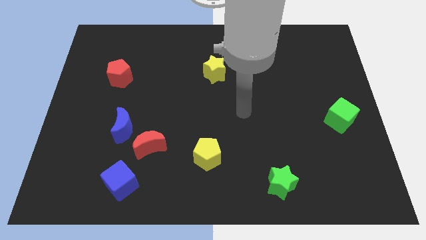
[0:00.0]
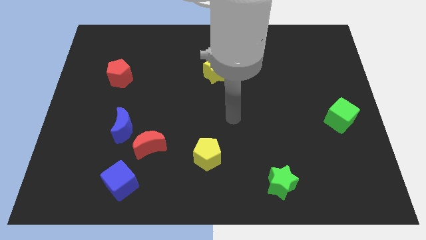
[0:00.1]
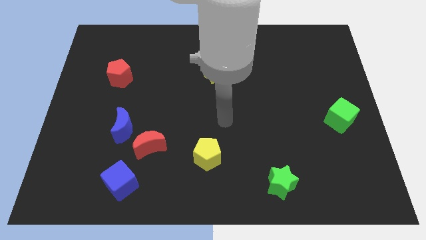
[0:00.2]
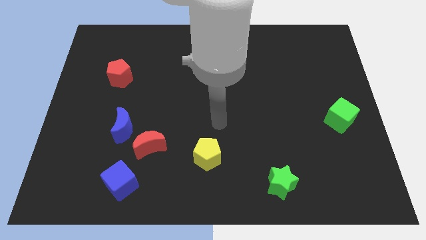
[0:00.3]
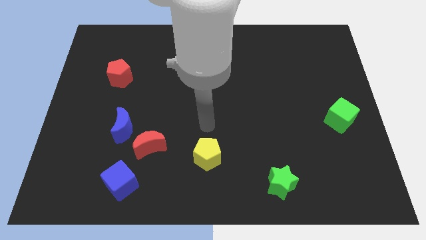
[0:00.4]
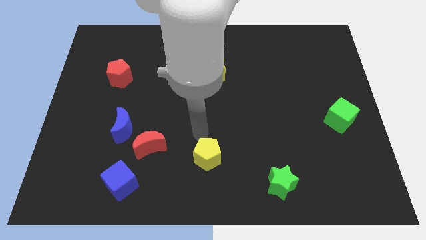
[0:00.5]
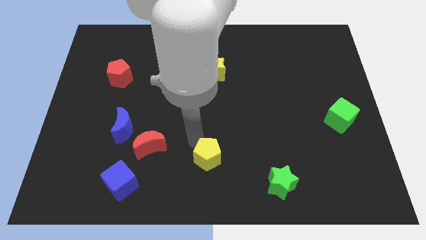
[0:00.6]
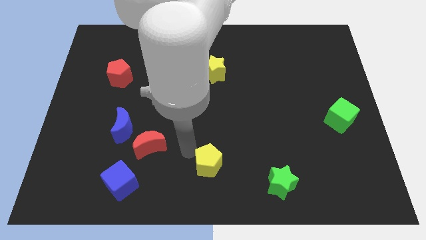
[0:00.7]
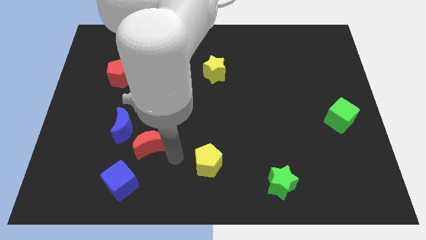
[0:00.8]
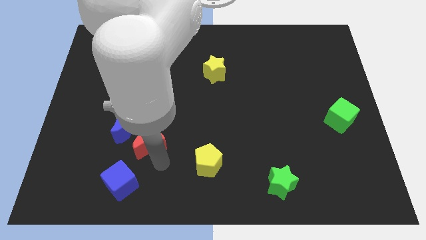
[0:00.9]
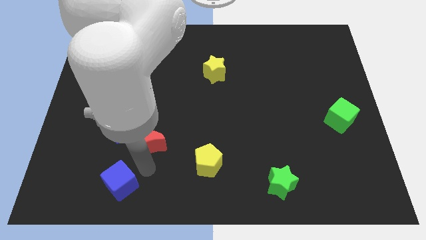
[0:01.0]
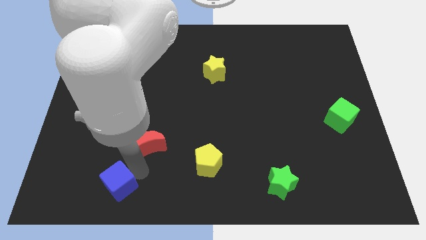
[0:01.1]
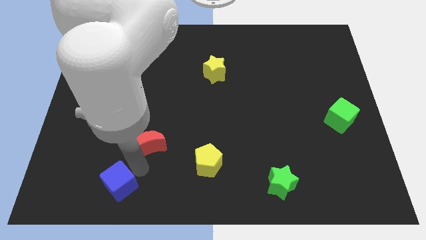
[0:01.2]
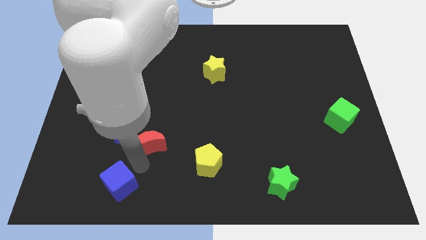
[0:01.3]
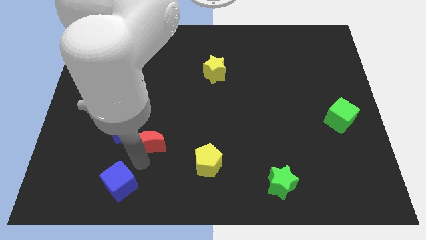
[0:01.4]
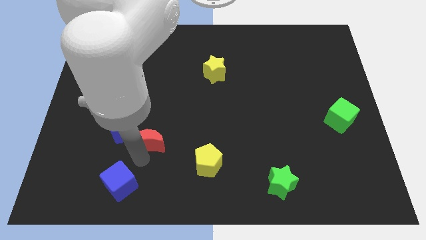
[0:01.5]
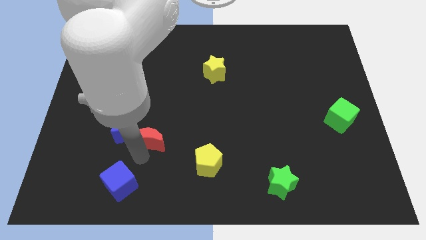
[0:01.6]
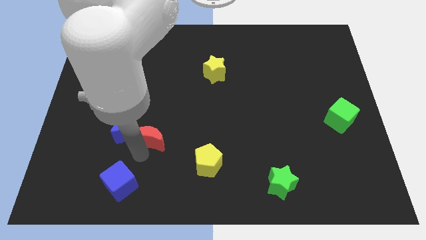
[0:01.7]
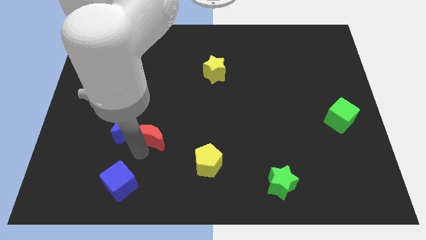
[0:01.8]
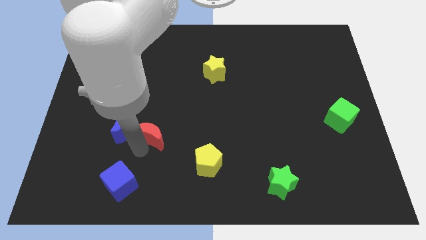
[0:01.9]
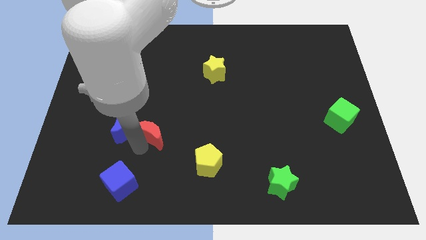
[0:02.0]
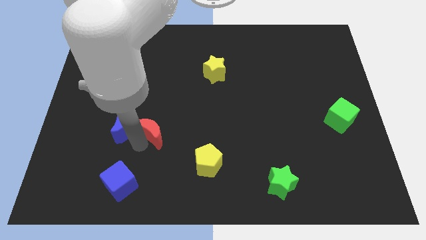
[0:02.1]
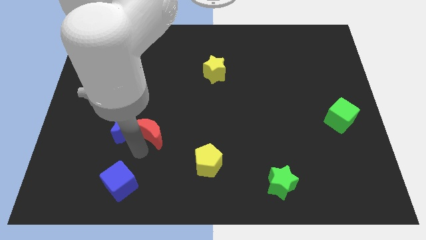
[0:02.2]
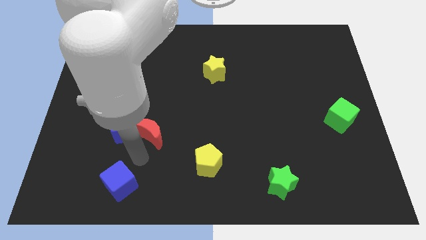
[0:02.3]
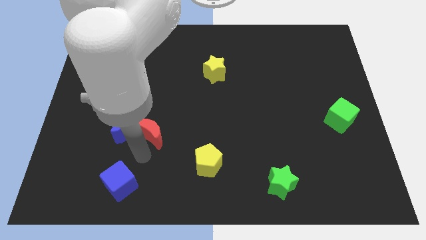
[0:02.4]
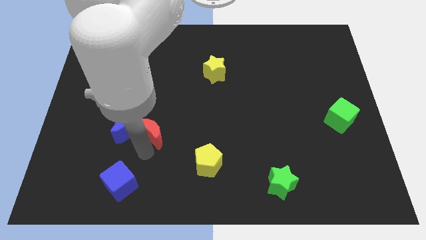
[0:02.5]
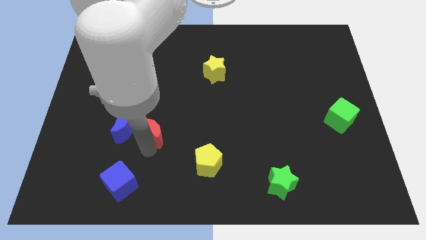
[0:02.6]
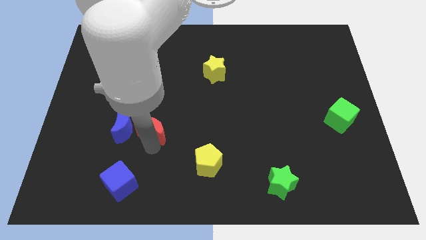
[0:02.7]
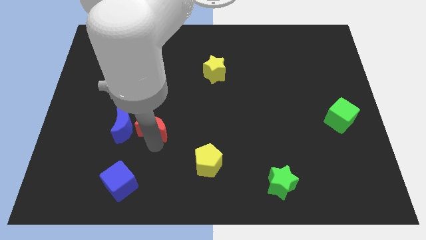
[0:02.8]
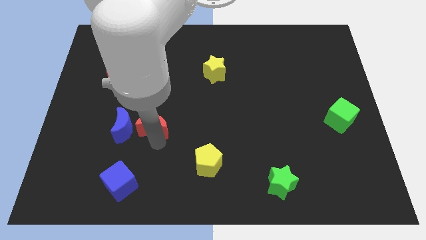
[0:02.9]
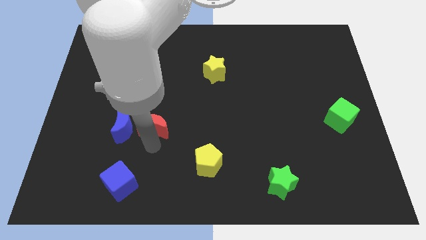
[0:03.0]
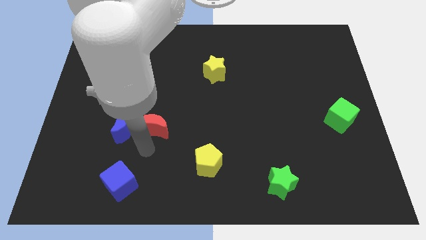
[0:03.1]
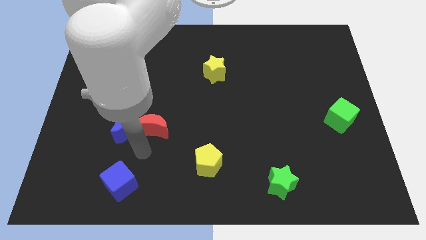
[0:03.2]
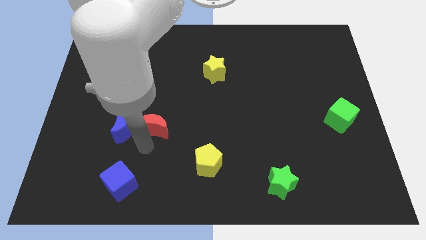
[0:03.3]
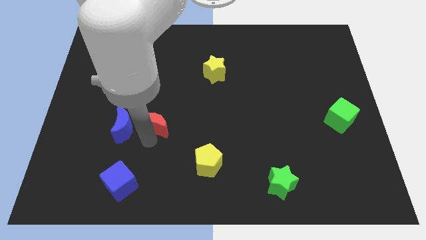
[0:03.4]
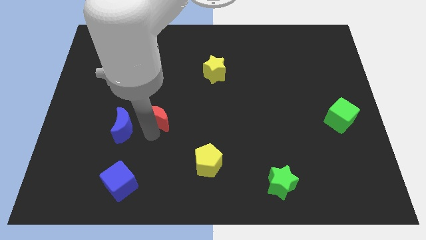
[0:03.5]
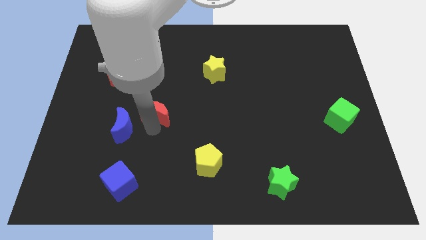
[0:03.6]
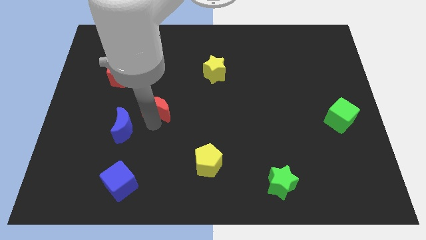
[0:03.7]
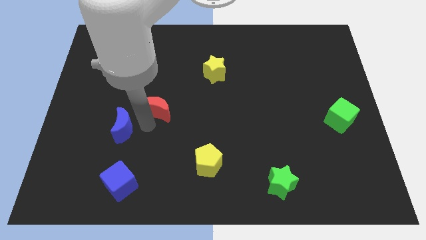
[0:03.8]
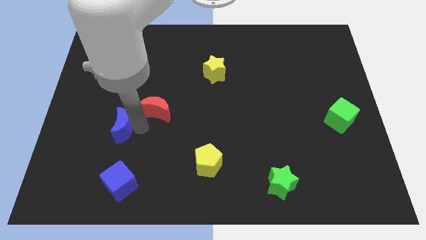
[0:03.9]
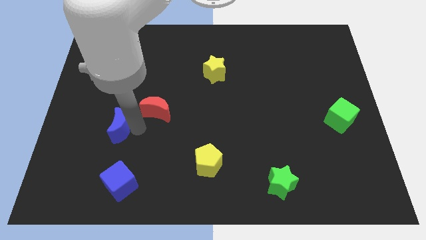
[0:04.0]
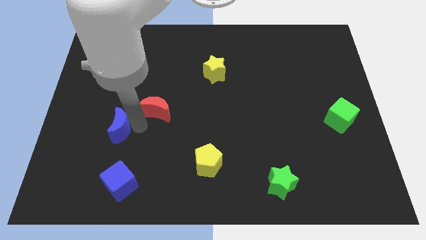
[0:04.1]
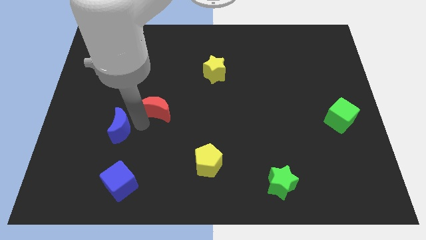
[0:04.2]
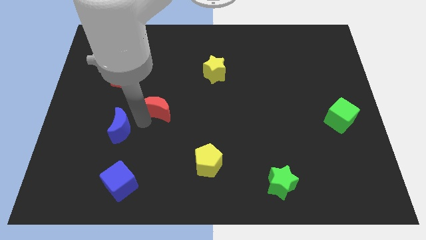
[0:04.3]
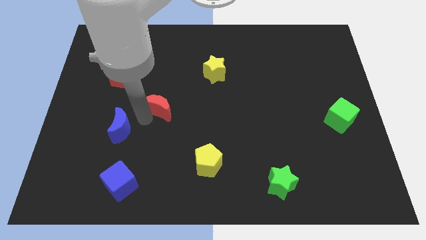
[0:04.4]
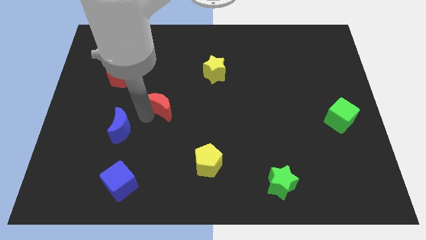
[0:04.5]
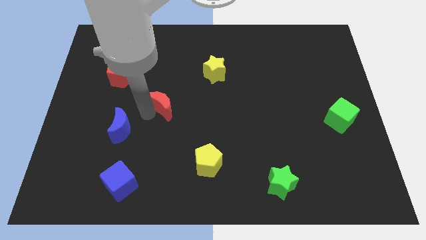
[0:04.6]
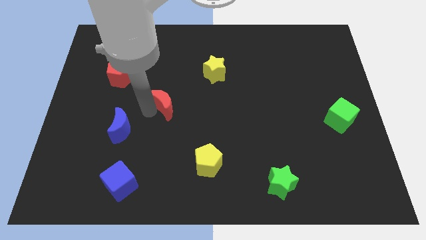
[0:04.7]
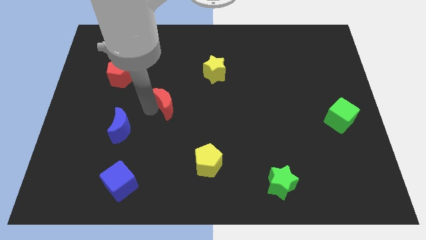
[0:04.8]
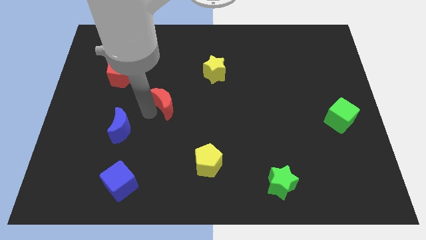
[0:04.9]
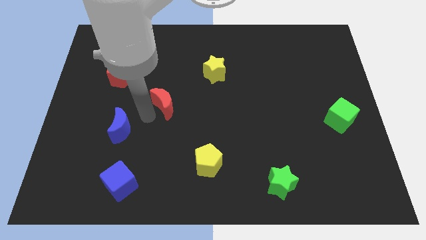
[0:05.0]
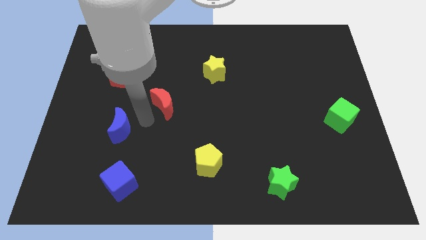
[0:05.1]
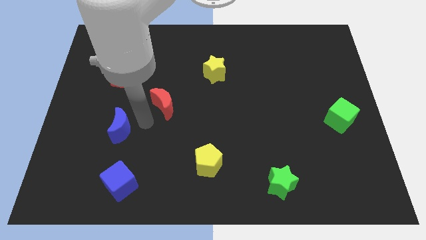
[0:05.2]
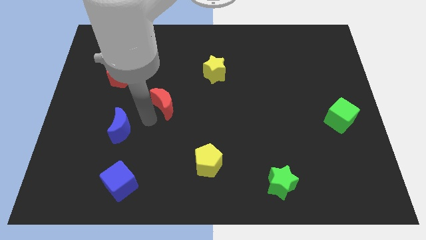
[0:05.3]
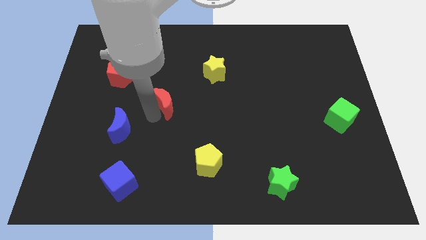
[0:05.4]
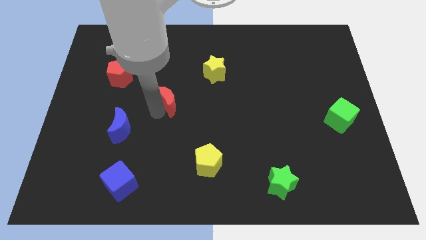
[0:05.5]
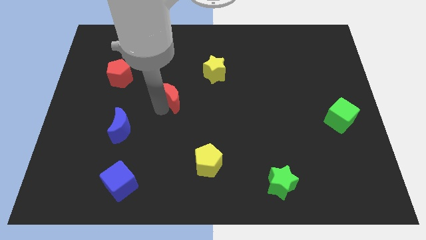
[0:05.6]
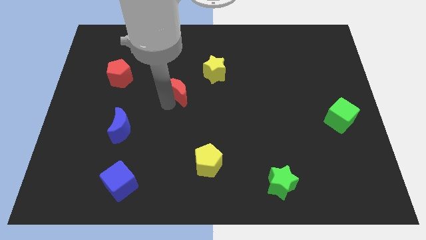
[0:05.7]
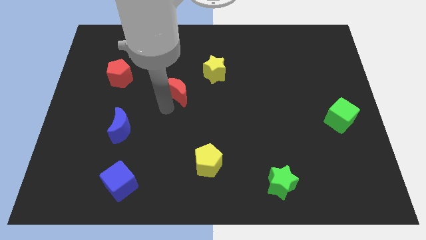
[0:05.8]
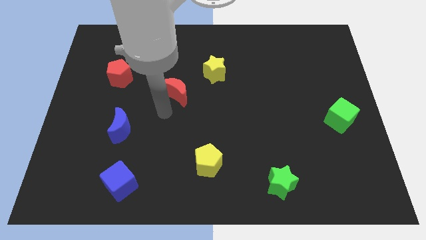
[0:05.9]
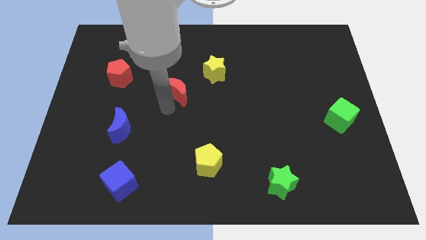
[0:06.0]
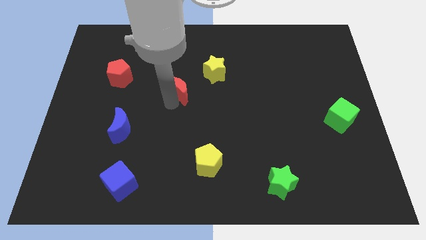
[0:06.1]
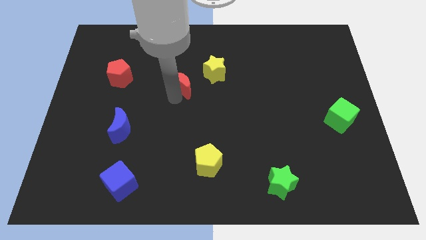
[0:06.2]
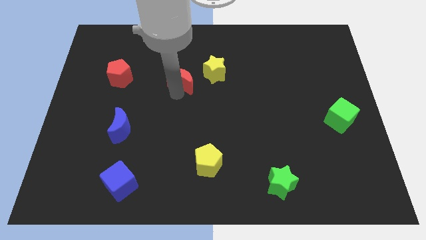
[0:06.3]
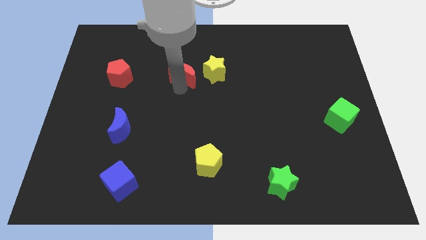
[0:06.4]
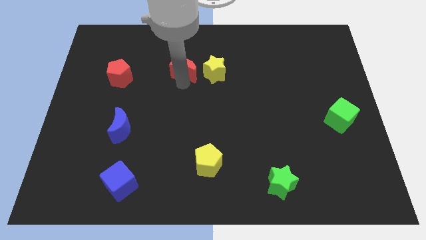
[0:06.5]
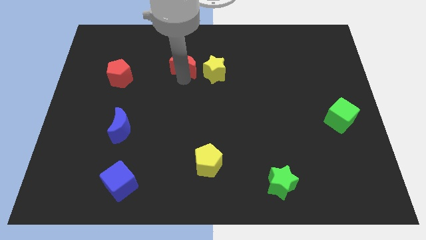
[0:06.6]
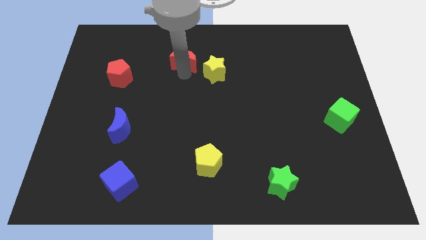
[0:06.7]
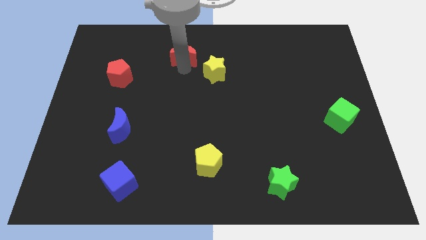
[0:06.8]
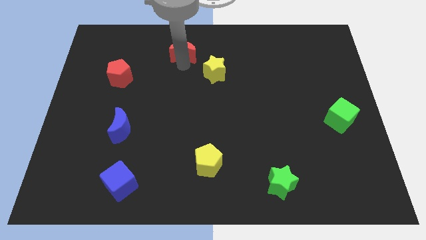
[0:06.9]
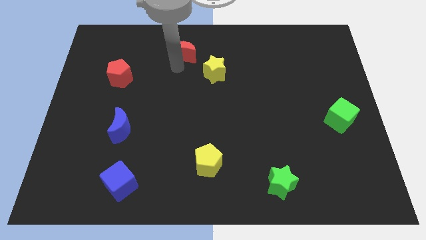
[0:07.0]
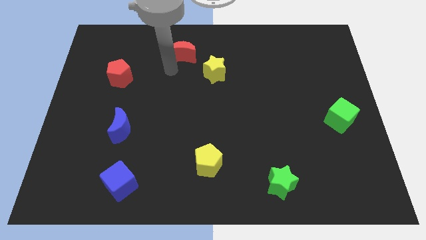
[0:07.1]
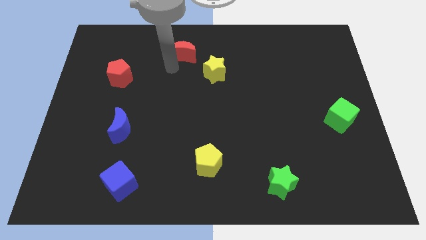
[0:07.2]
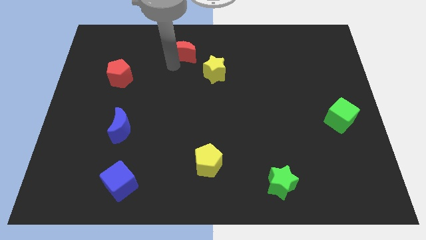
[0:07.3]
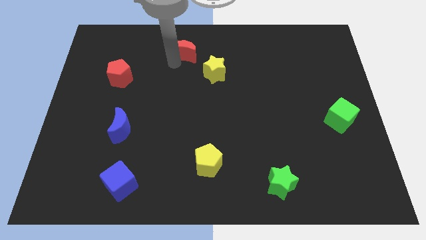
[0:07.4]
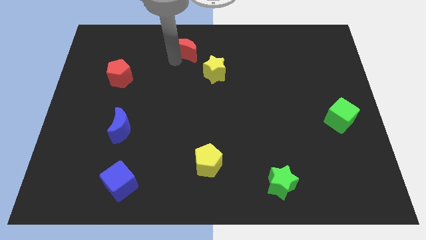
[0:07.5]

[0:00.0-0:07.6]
slide the red moon to the top
